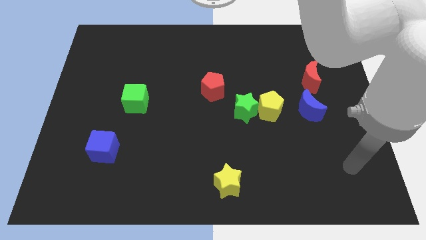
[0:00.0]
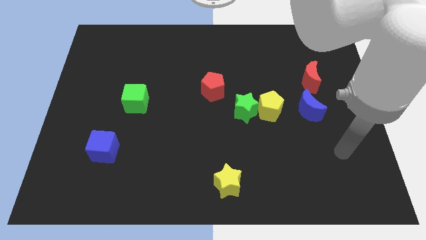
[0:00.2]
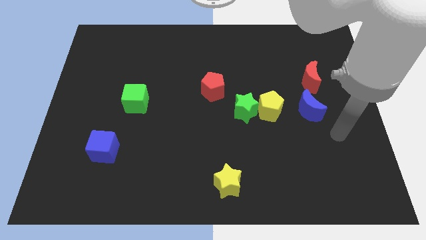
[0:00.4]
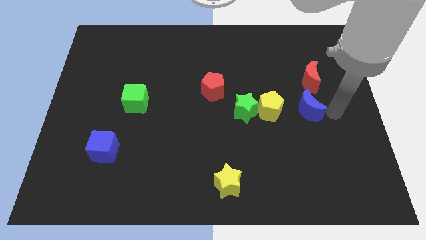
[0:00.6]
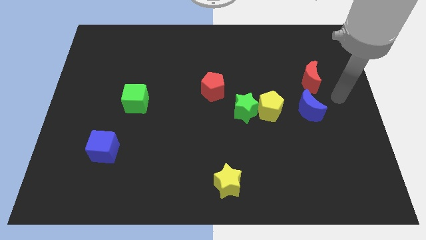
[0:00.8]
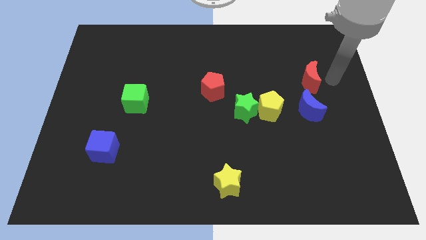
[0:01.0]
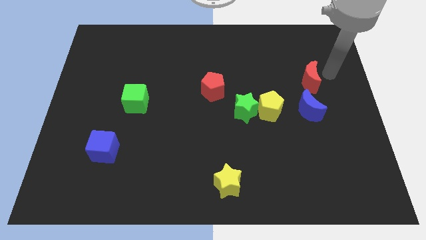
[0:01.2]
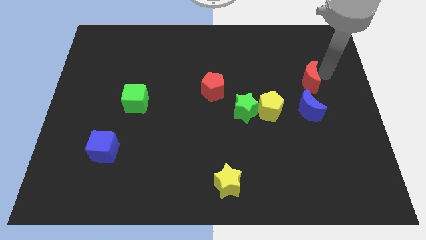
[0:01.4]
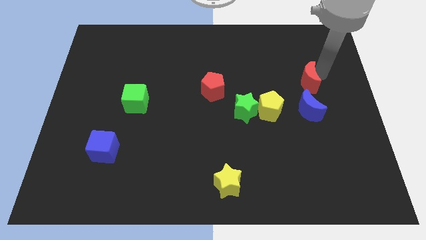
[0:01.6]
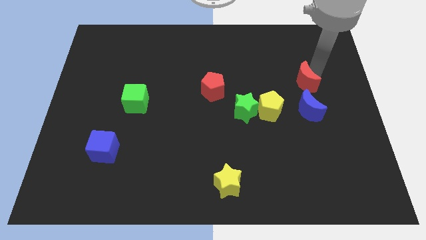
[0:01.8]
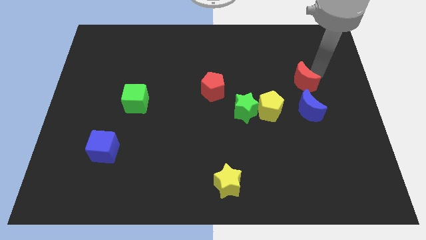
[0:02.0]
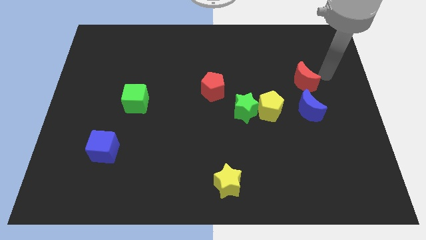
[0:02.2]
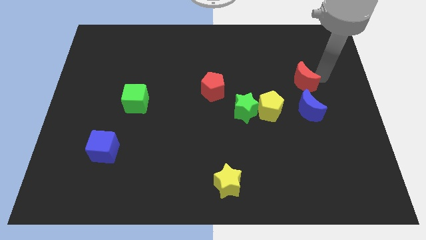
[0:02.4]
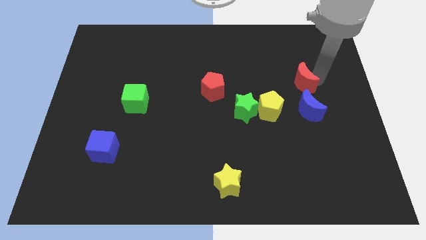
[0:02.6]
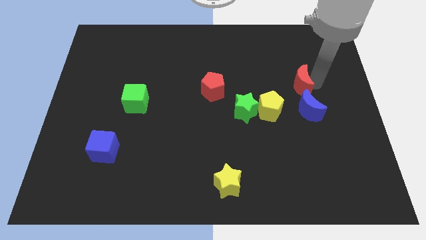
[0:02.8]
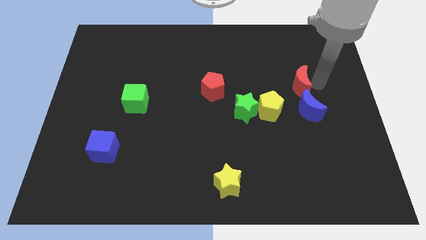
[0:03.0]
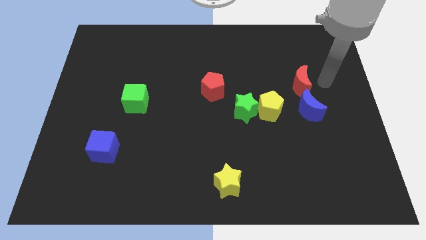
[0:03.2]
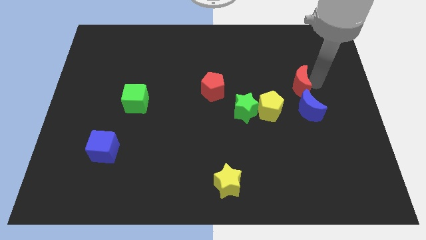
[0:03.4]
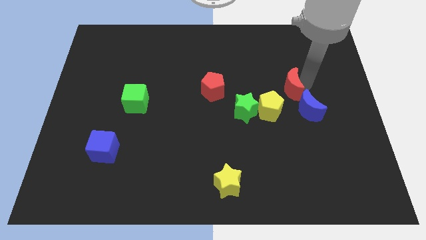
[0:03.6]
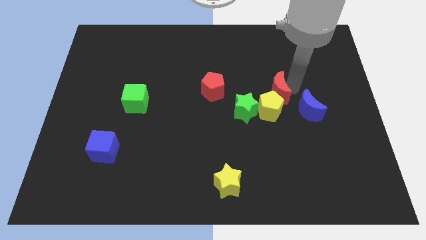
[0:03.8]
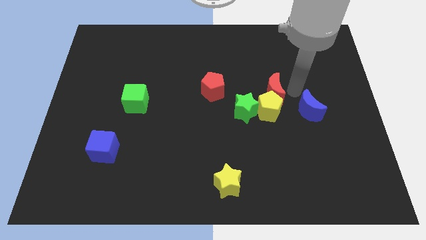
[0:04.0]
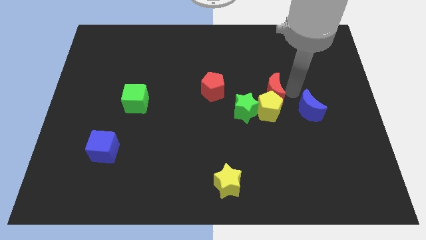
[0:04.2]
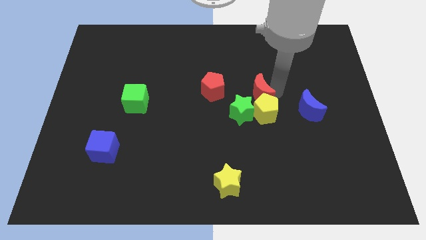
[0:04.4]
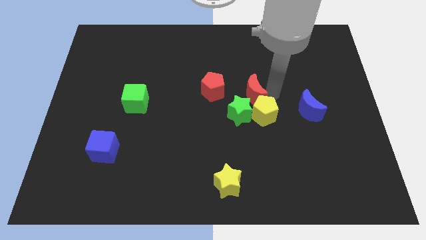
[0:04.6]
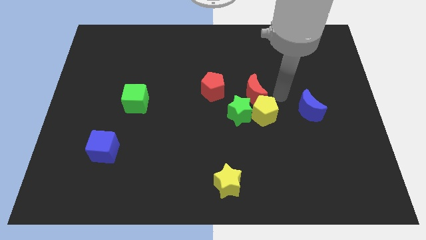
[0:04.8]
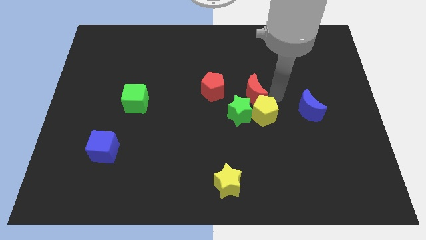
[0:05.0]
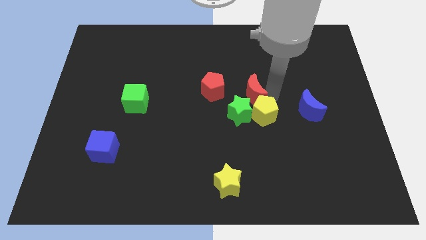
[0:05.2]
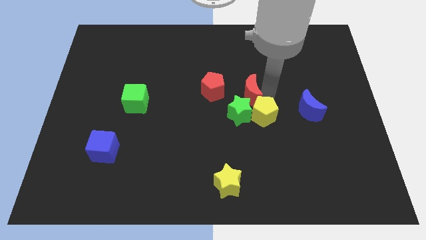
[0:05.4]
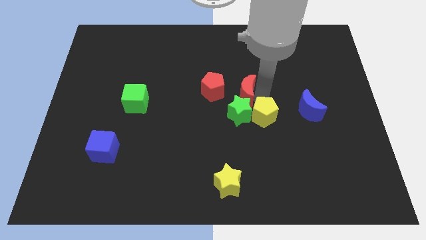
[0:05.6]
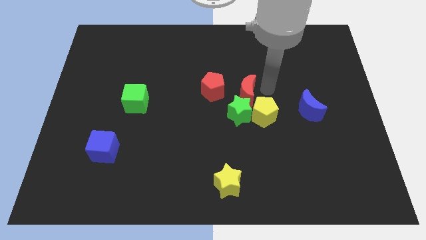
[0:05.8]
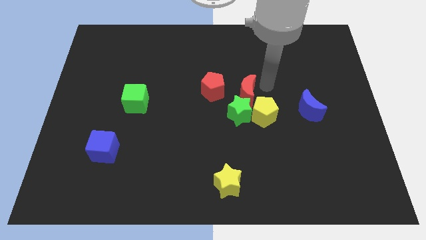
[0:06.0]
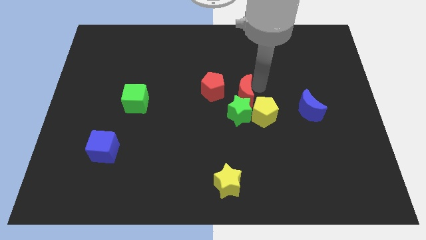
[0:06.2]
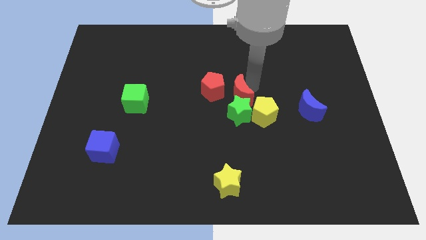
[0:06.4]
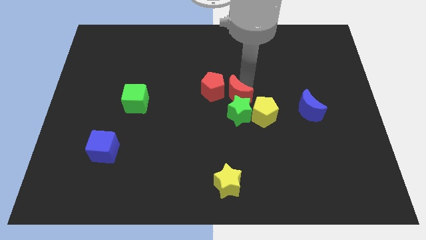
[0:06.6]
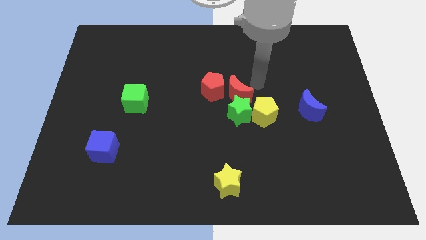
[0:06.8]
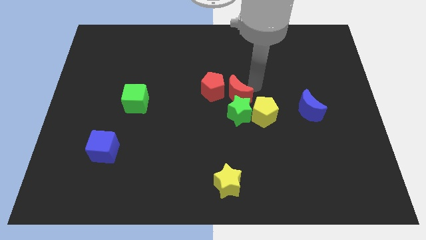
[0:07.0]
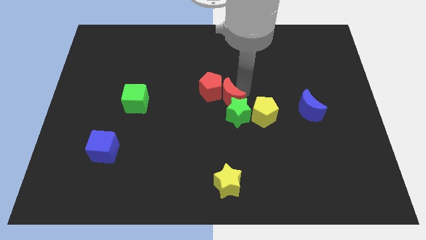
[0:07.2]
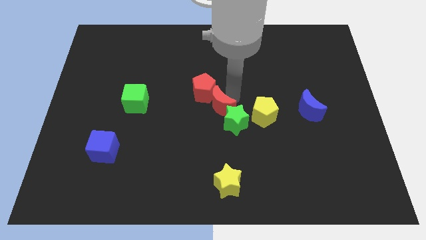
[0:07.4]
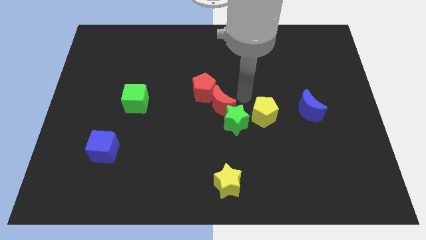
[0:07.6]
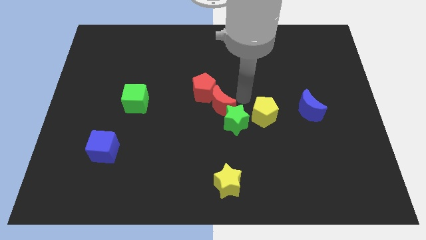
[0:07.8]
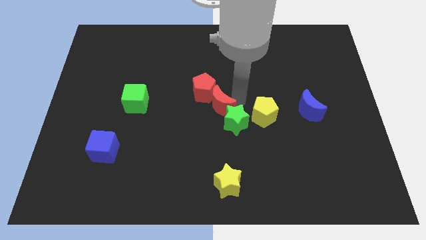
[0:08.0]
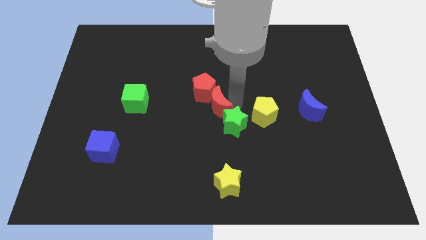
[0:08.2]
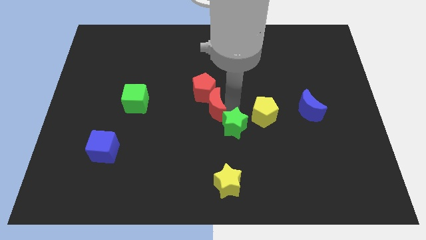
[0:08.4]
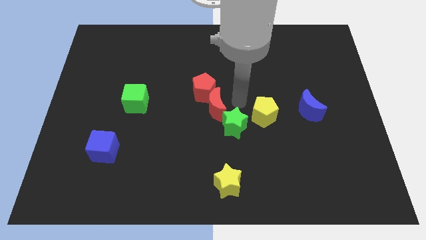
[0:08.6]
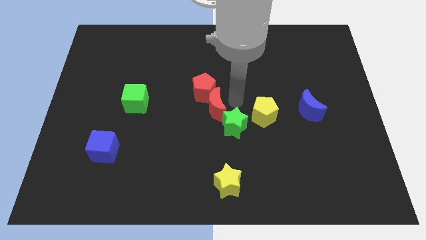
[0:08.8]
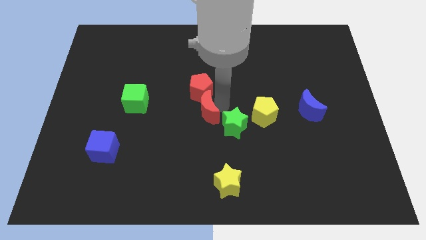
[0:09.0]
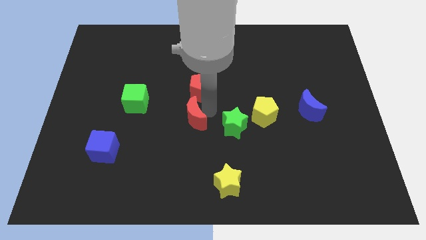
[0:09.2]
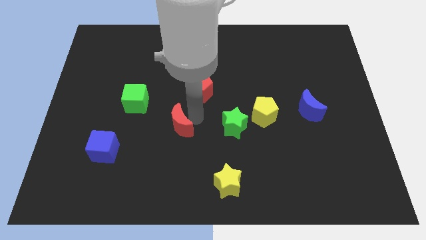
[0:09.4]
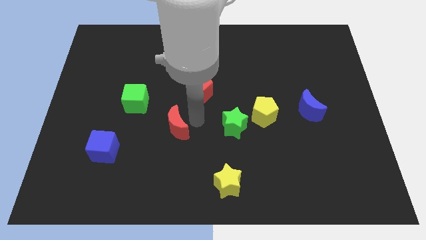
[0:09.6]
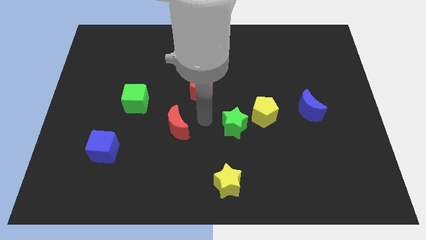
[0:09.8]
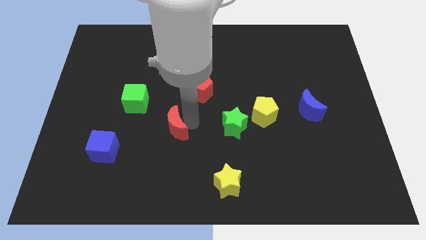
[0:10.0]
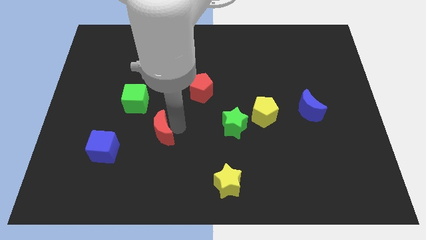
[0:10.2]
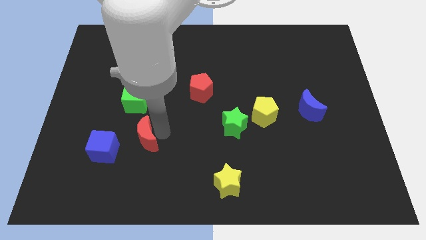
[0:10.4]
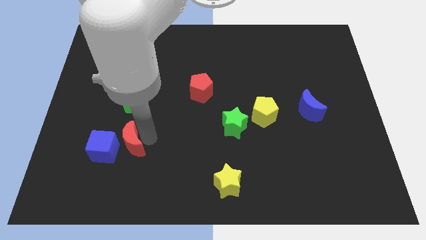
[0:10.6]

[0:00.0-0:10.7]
move the red moon next to the blue cube

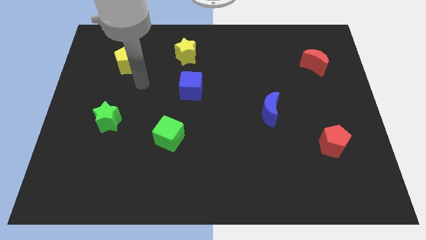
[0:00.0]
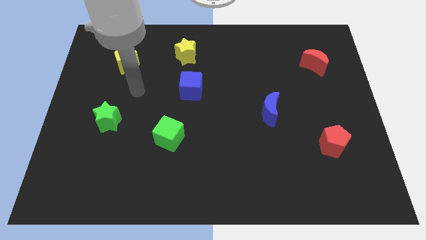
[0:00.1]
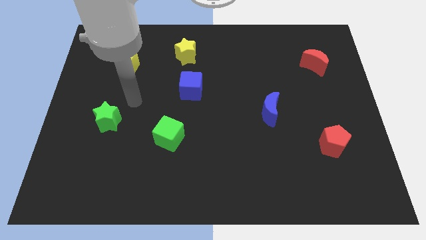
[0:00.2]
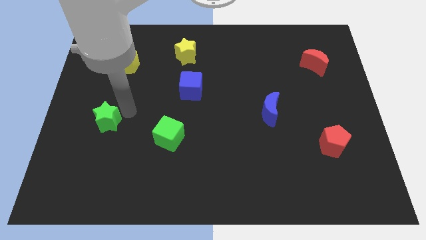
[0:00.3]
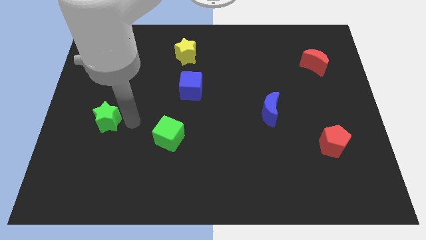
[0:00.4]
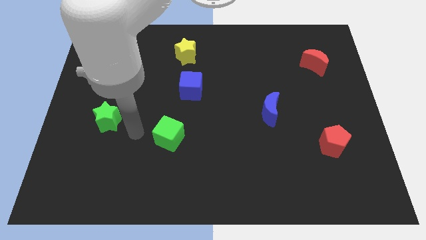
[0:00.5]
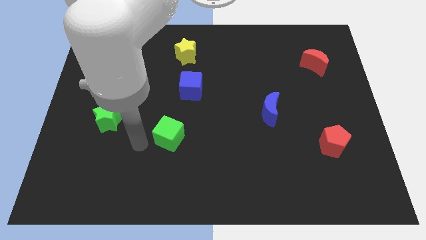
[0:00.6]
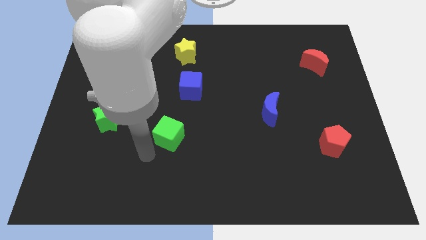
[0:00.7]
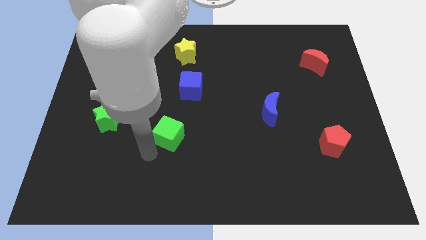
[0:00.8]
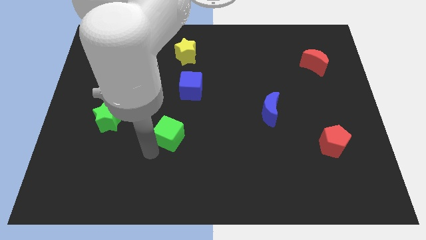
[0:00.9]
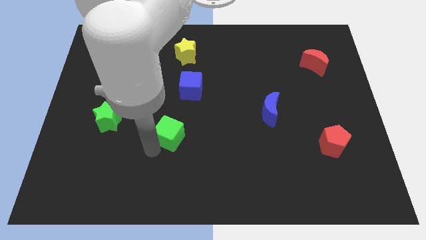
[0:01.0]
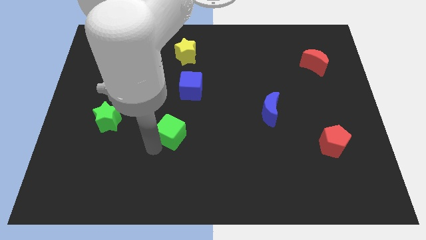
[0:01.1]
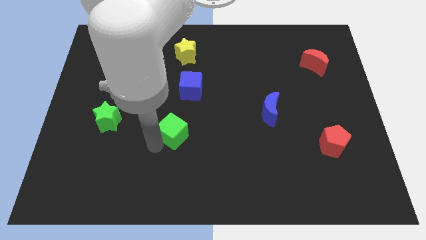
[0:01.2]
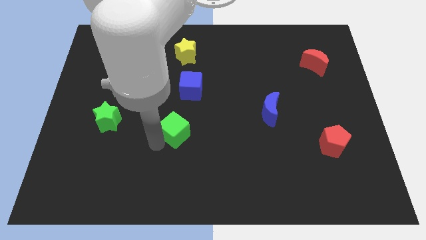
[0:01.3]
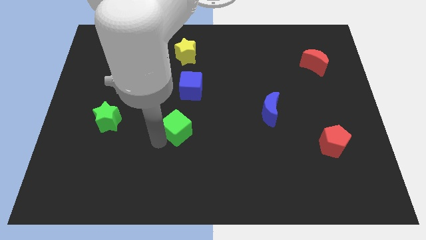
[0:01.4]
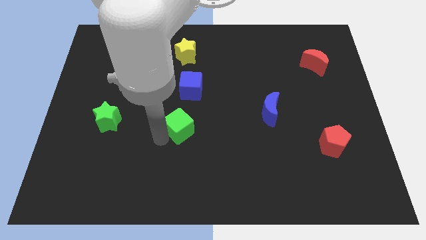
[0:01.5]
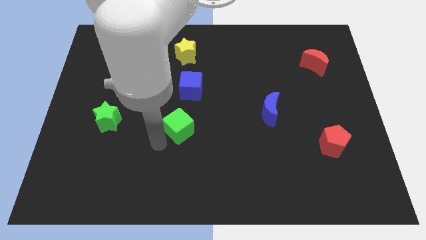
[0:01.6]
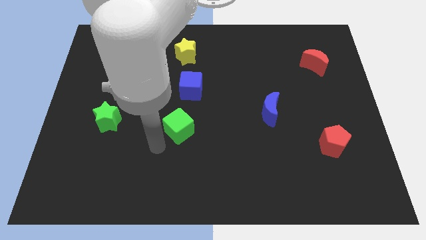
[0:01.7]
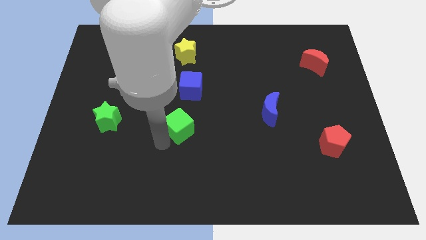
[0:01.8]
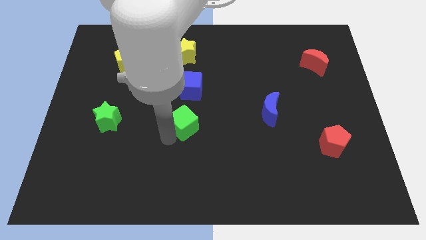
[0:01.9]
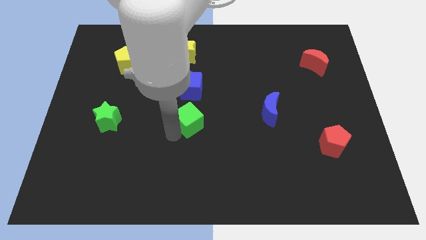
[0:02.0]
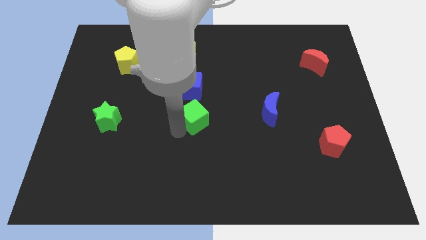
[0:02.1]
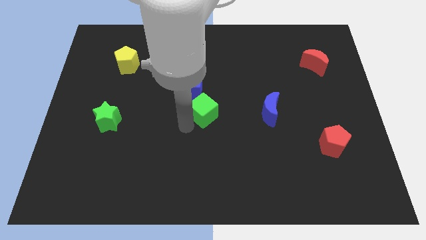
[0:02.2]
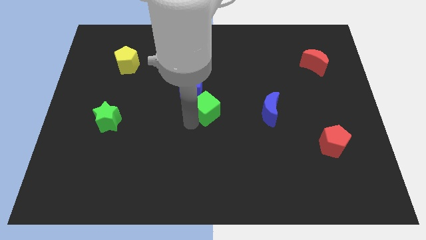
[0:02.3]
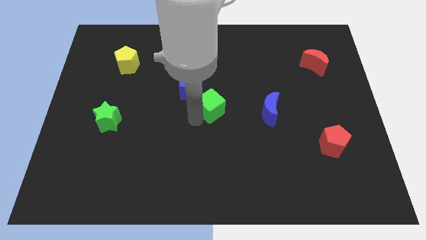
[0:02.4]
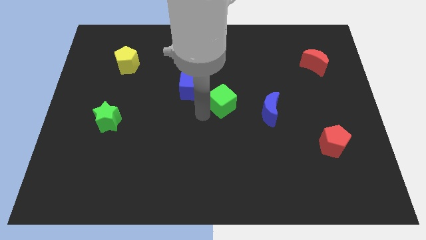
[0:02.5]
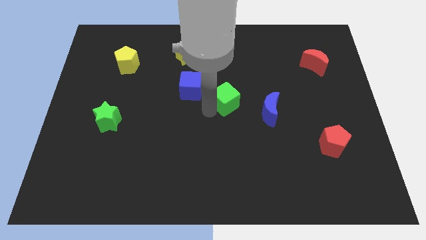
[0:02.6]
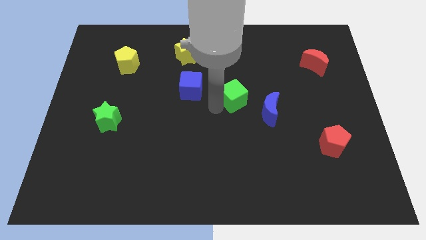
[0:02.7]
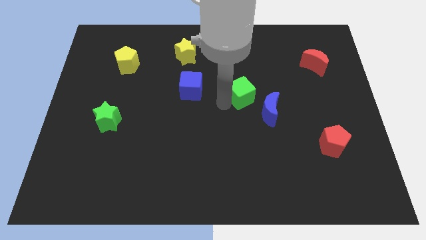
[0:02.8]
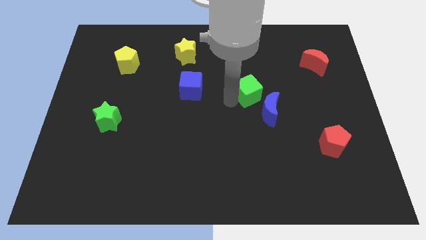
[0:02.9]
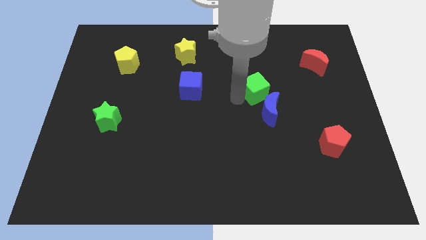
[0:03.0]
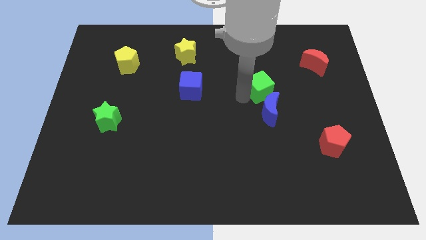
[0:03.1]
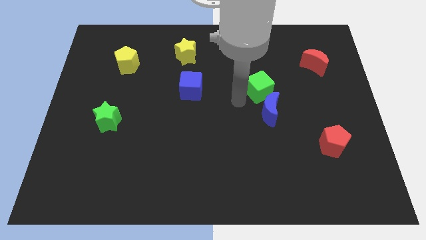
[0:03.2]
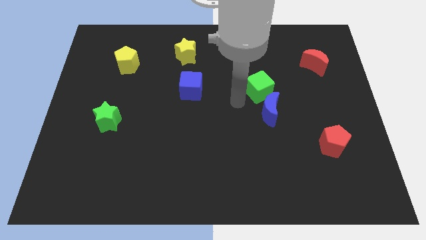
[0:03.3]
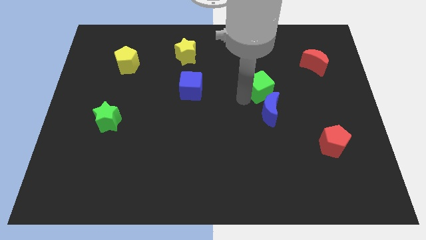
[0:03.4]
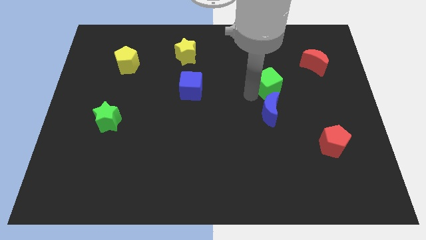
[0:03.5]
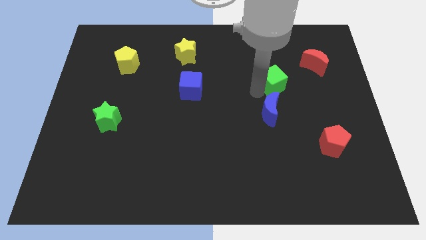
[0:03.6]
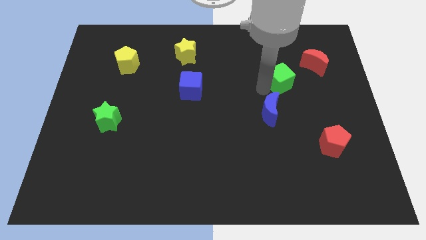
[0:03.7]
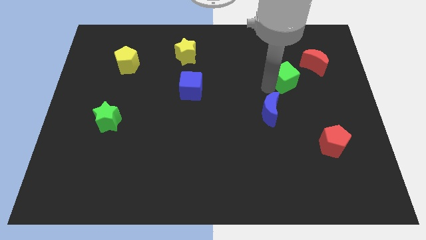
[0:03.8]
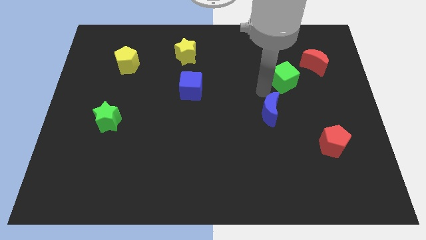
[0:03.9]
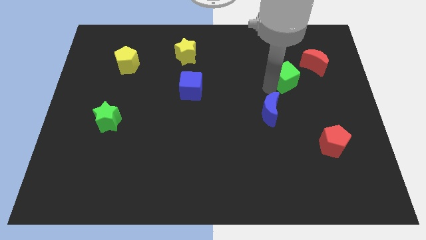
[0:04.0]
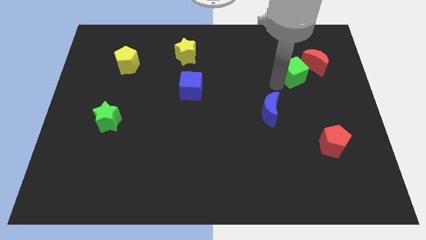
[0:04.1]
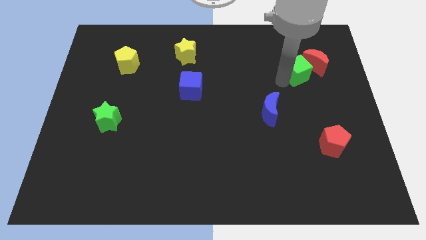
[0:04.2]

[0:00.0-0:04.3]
slide the green cube close to the red moon
